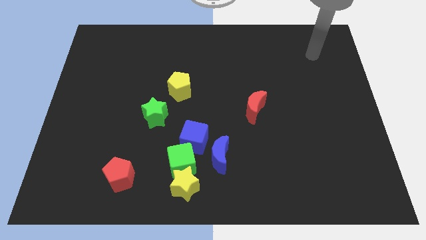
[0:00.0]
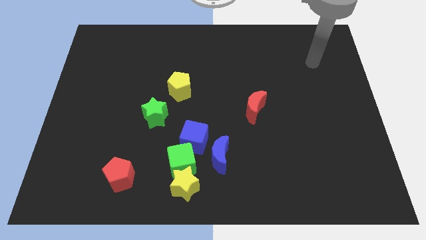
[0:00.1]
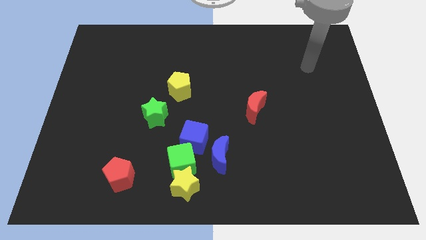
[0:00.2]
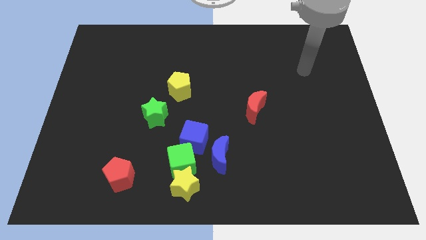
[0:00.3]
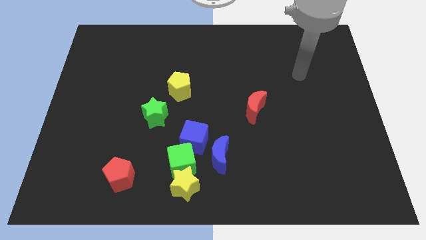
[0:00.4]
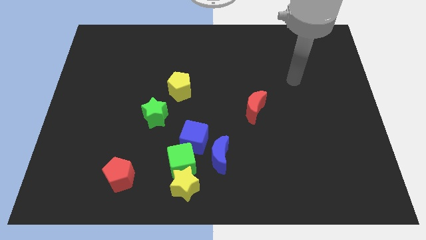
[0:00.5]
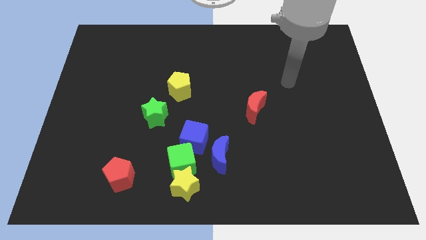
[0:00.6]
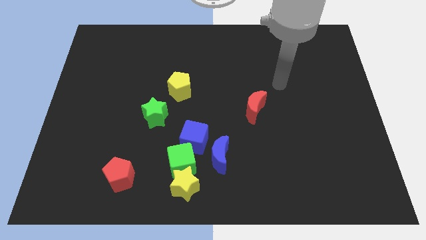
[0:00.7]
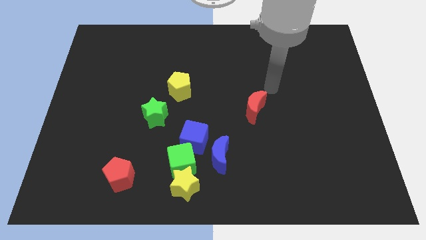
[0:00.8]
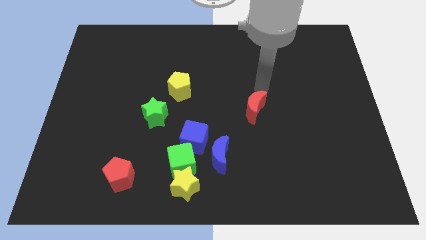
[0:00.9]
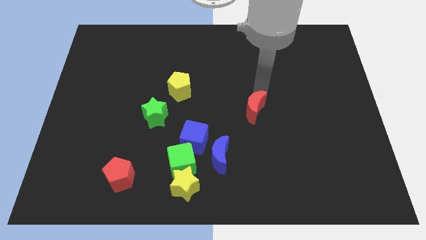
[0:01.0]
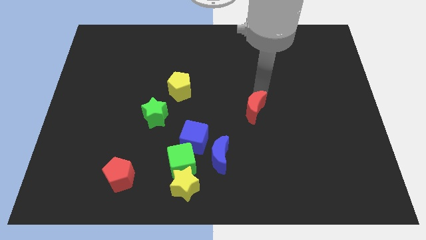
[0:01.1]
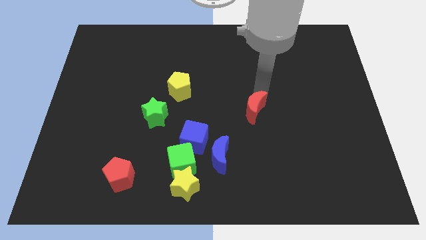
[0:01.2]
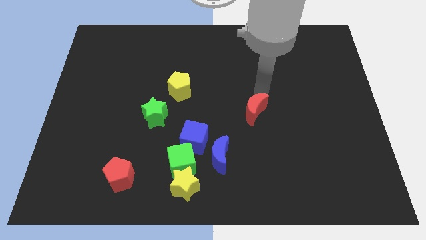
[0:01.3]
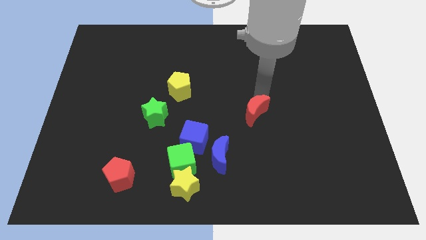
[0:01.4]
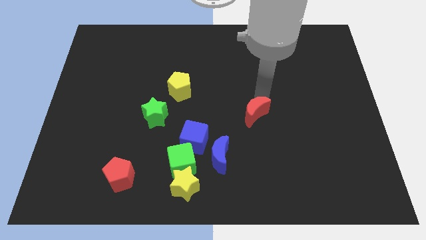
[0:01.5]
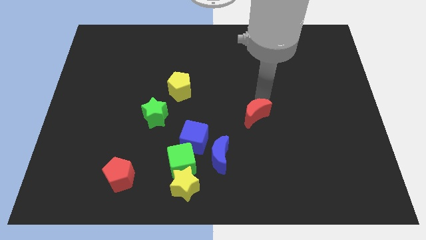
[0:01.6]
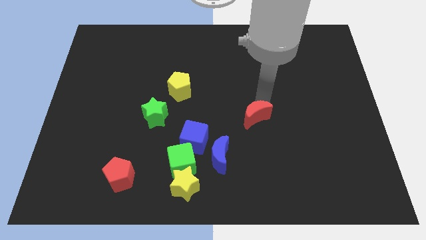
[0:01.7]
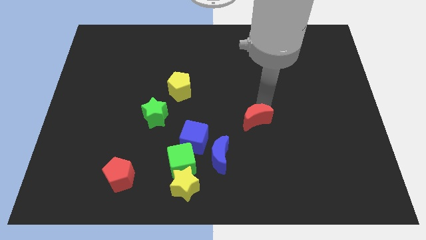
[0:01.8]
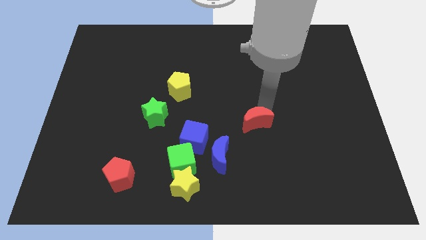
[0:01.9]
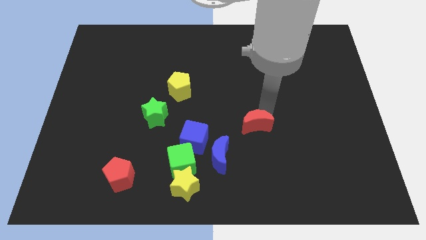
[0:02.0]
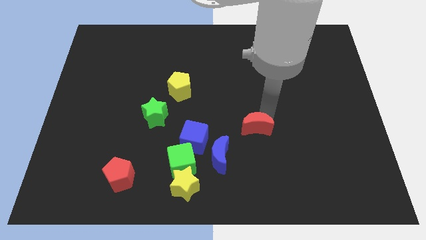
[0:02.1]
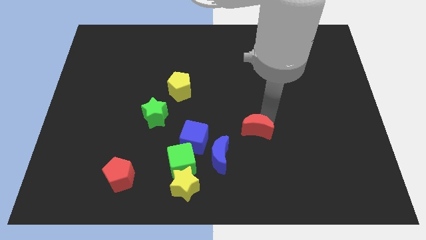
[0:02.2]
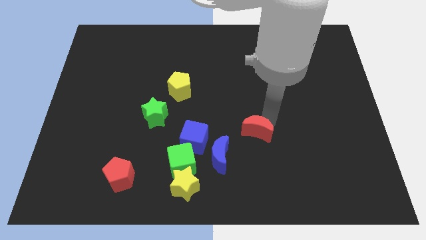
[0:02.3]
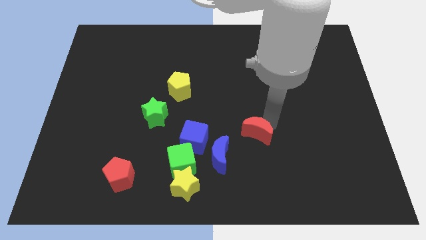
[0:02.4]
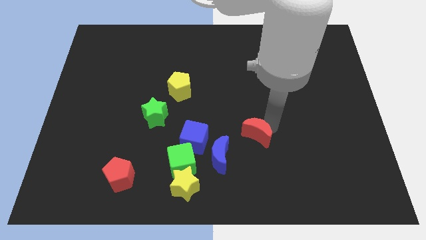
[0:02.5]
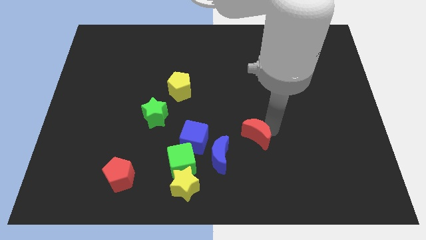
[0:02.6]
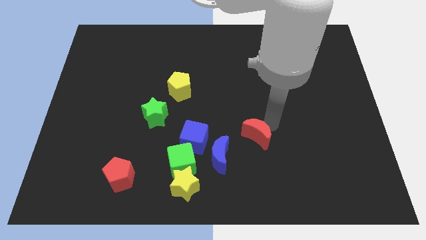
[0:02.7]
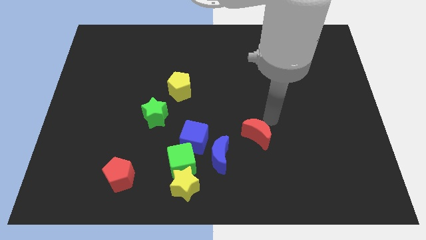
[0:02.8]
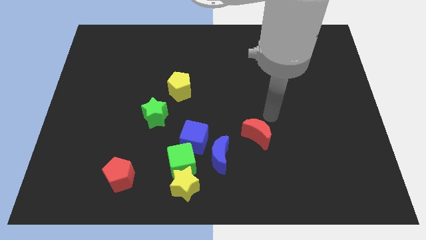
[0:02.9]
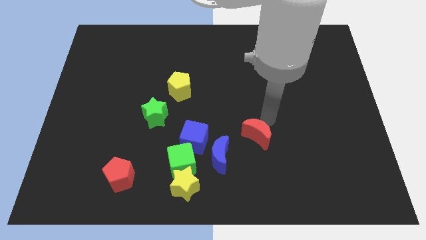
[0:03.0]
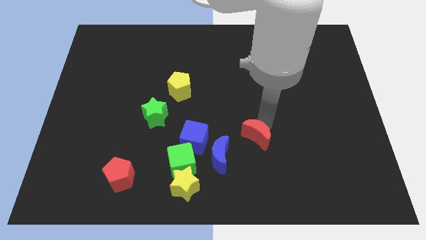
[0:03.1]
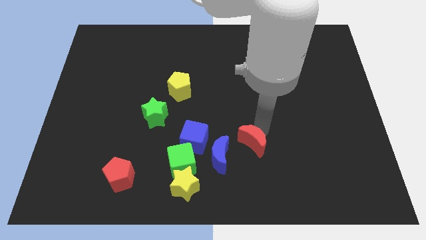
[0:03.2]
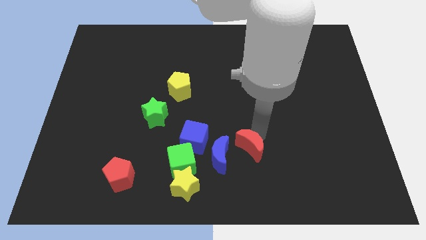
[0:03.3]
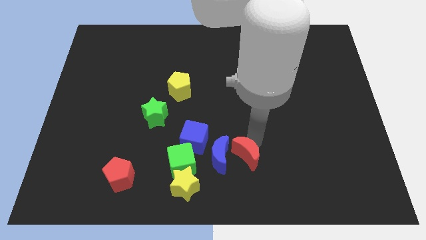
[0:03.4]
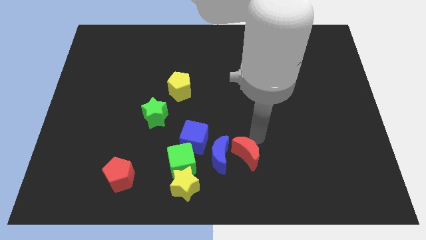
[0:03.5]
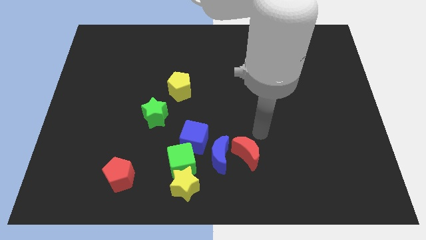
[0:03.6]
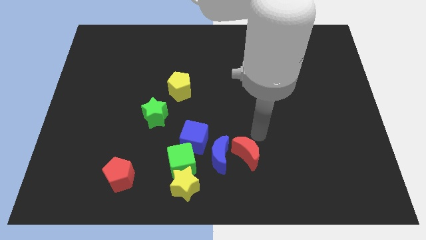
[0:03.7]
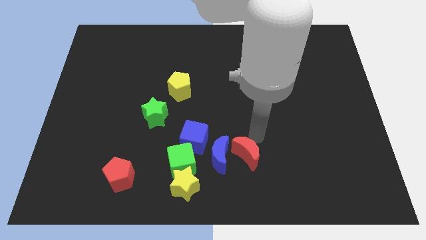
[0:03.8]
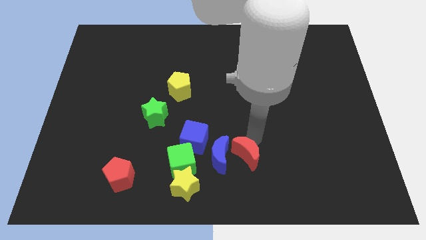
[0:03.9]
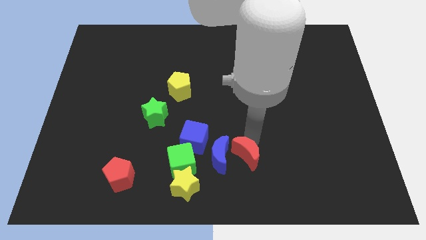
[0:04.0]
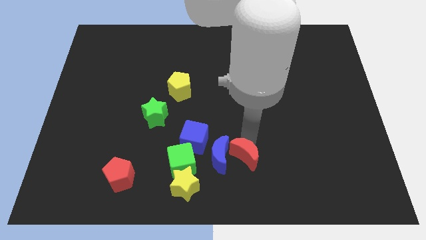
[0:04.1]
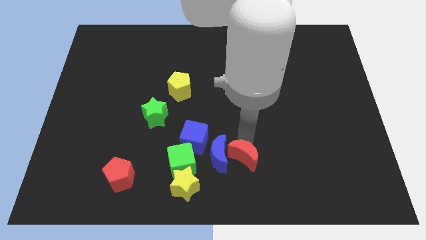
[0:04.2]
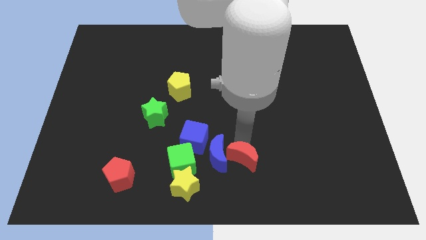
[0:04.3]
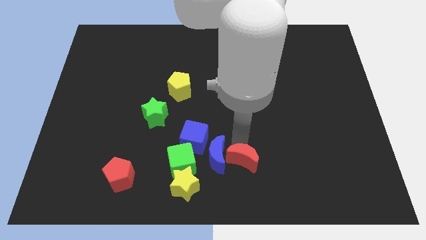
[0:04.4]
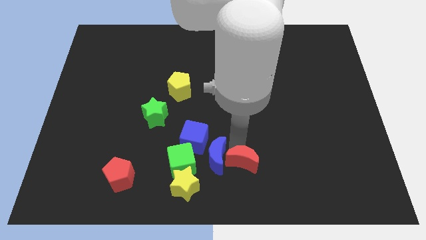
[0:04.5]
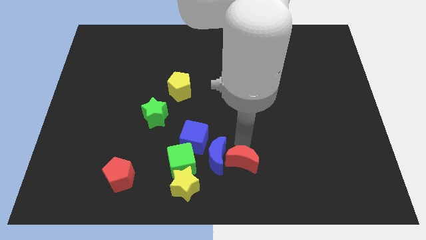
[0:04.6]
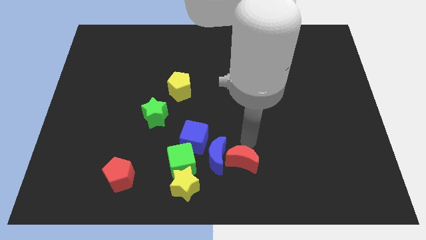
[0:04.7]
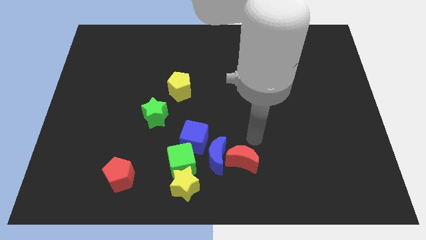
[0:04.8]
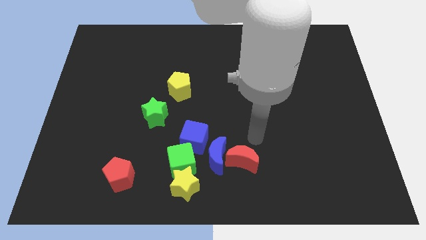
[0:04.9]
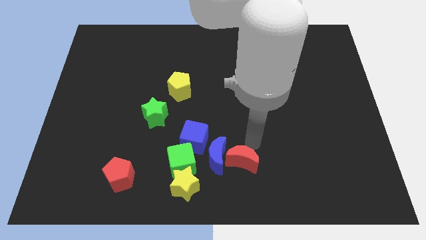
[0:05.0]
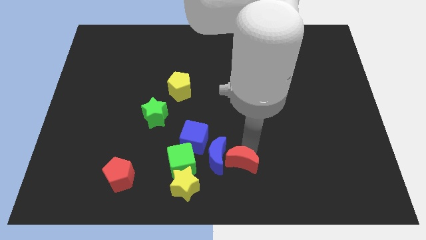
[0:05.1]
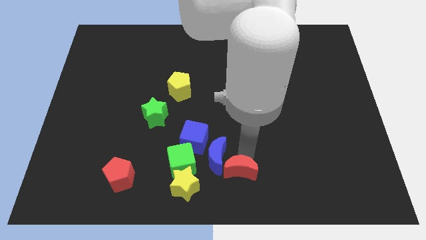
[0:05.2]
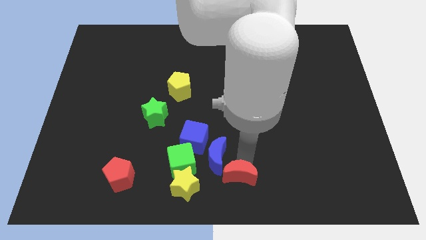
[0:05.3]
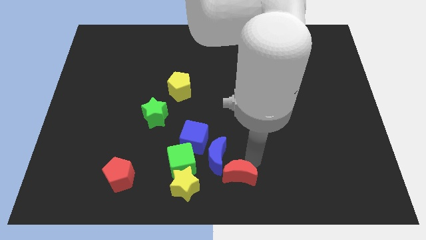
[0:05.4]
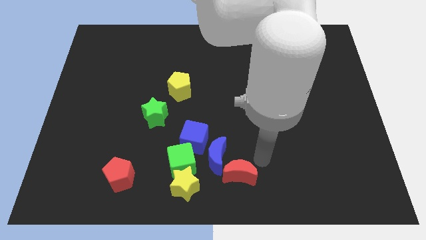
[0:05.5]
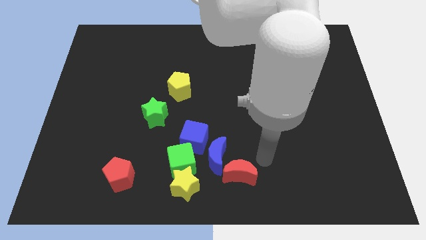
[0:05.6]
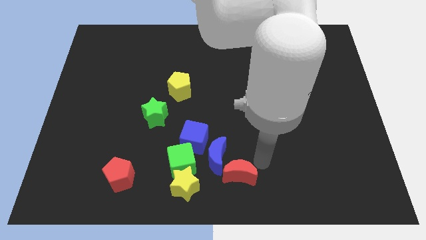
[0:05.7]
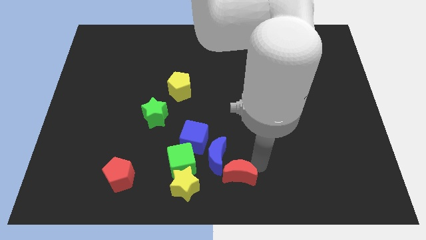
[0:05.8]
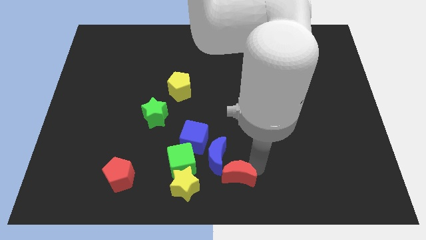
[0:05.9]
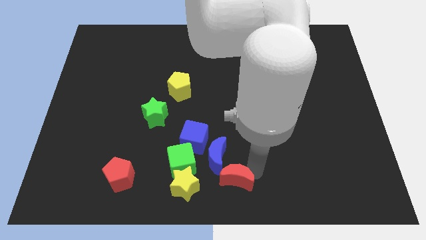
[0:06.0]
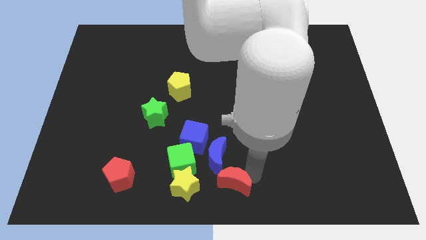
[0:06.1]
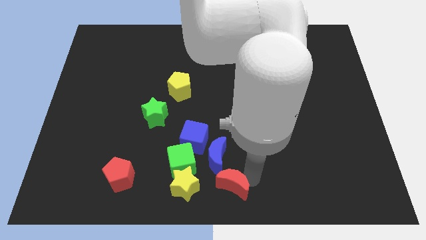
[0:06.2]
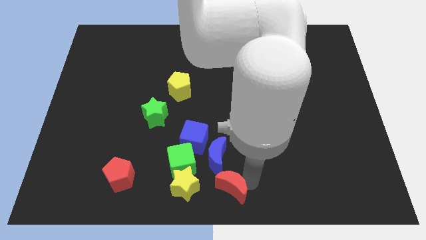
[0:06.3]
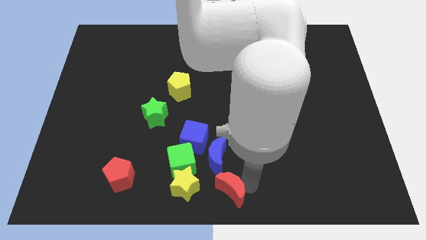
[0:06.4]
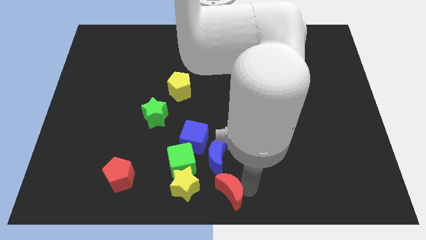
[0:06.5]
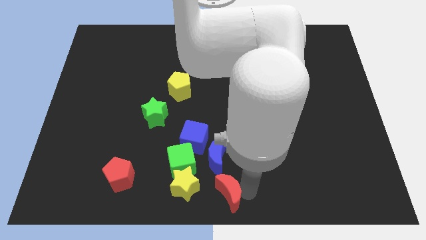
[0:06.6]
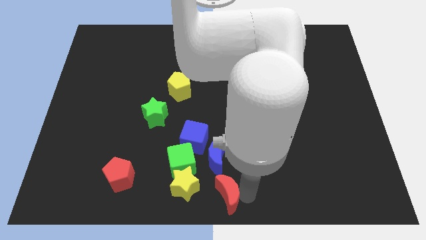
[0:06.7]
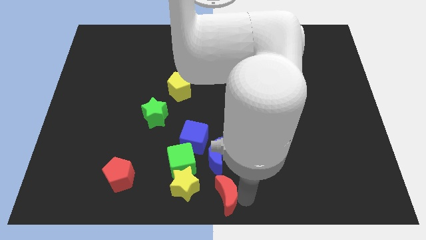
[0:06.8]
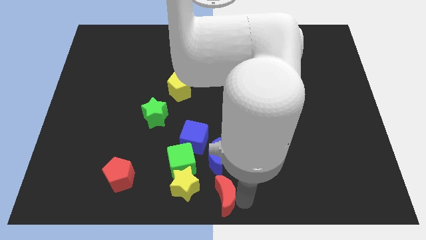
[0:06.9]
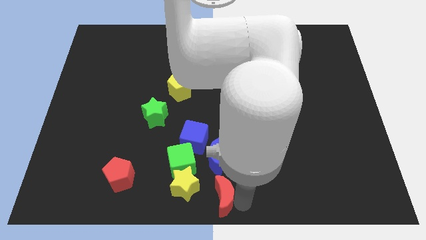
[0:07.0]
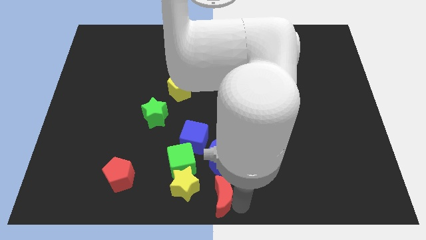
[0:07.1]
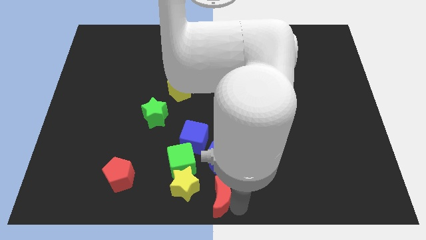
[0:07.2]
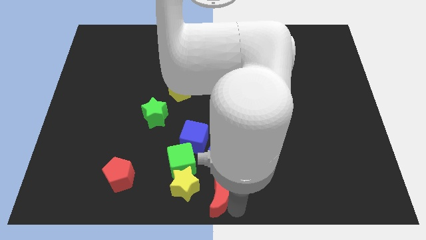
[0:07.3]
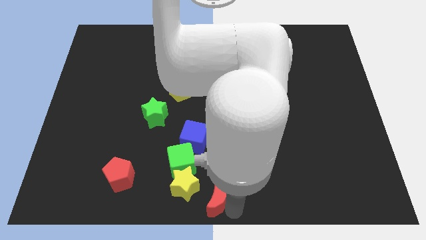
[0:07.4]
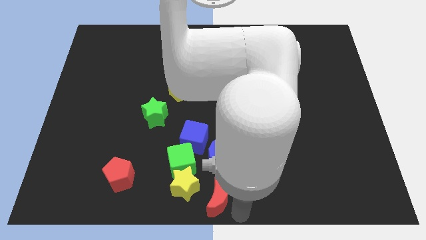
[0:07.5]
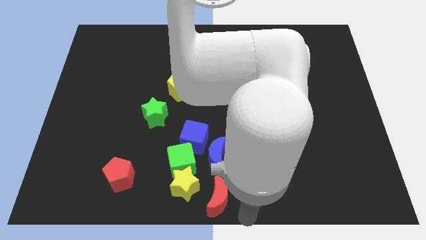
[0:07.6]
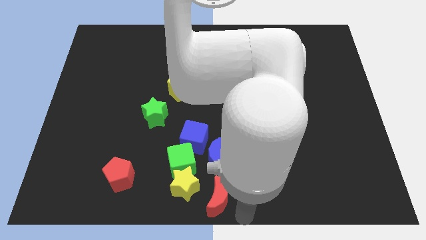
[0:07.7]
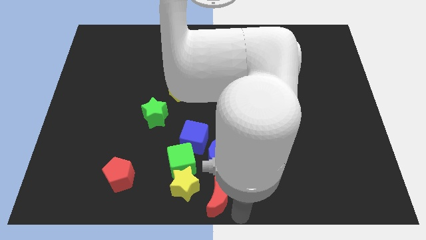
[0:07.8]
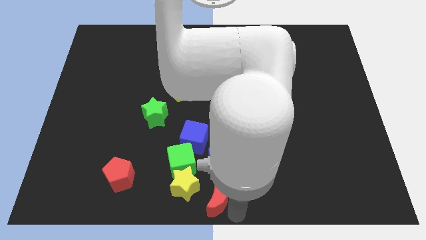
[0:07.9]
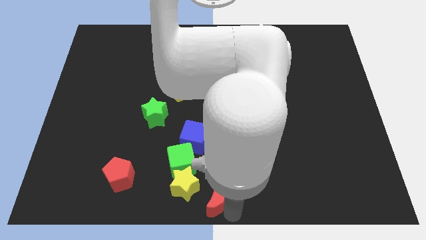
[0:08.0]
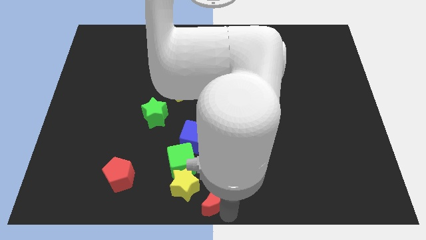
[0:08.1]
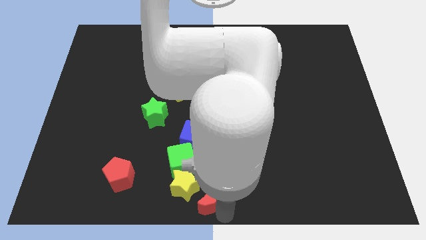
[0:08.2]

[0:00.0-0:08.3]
slide the red moon to the bottom side of the blue cube
